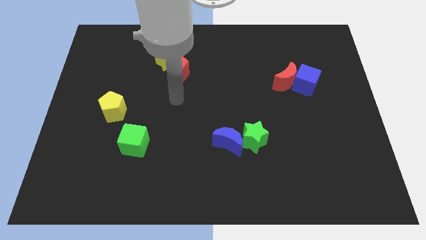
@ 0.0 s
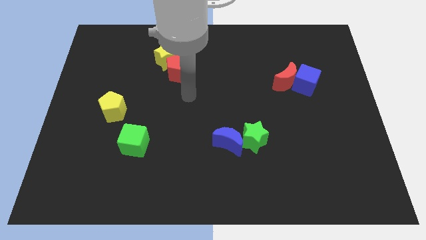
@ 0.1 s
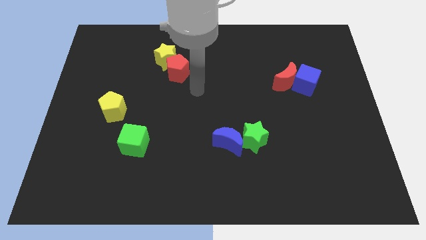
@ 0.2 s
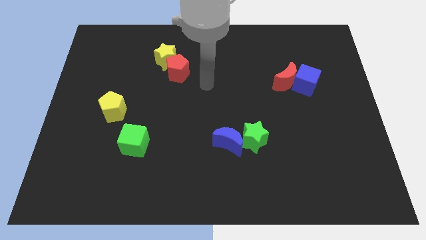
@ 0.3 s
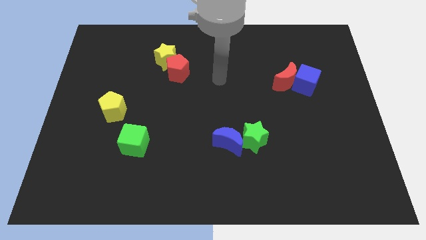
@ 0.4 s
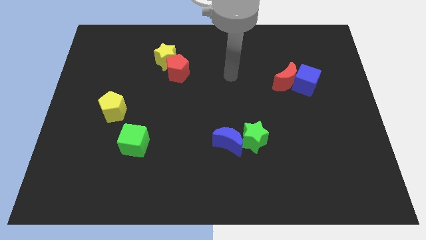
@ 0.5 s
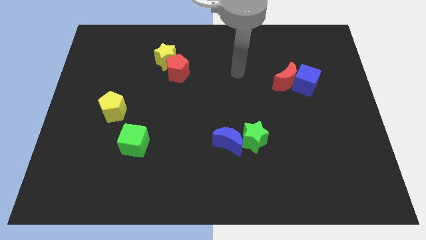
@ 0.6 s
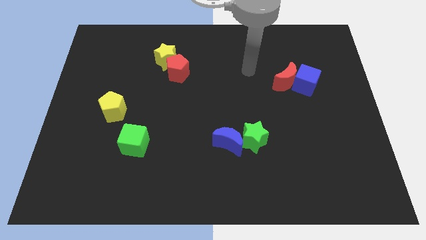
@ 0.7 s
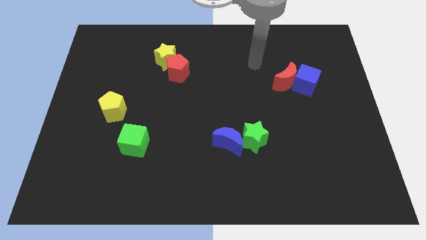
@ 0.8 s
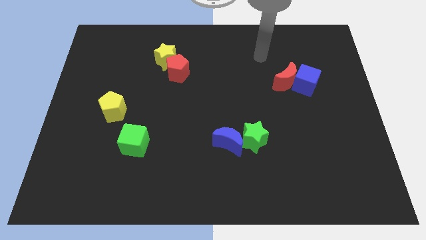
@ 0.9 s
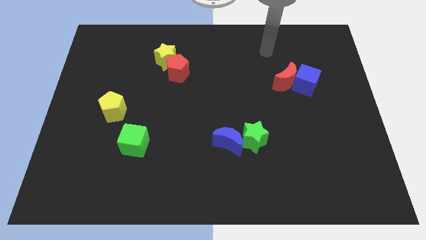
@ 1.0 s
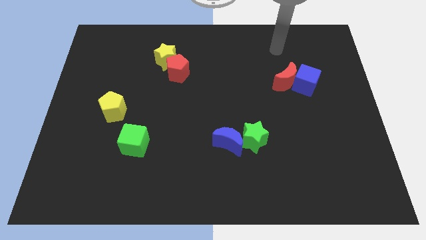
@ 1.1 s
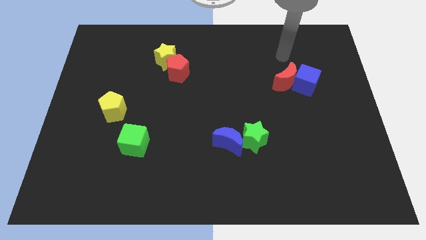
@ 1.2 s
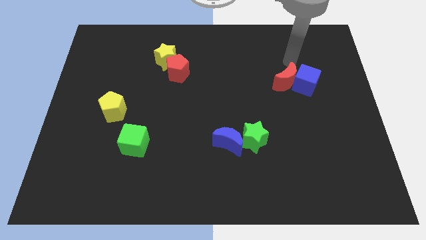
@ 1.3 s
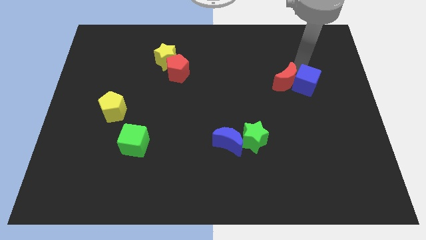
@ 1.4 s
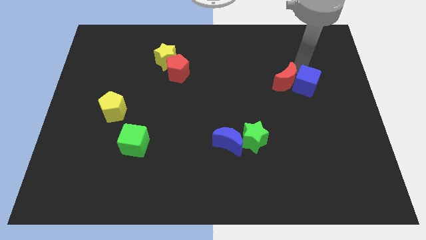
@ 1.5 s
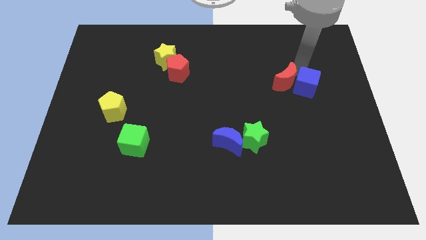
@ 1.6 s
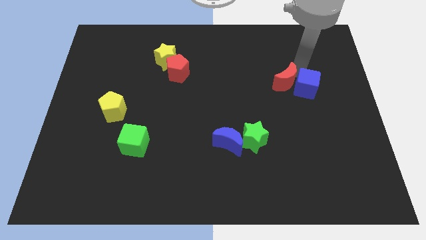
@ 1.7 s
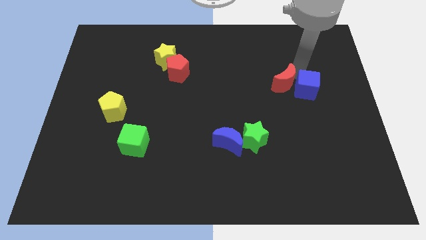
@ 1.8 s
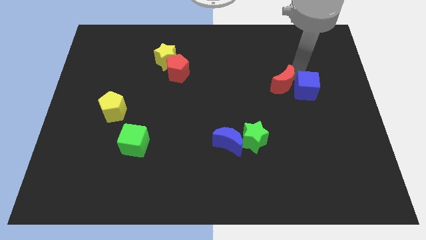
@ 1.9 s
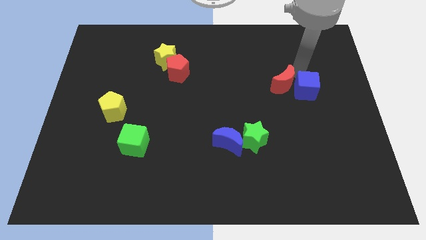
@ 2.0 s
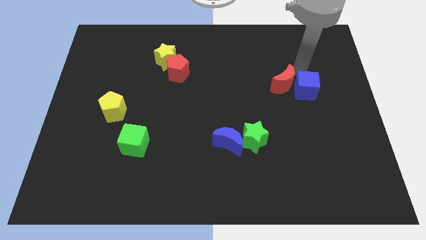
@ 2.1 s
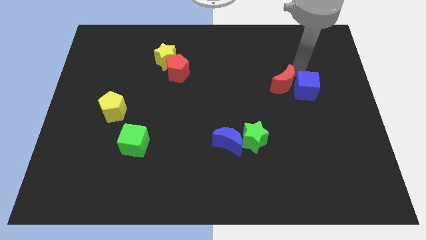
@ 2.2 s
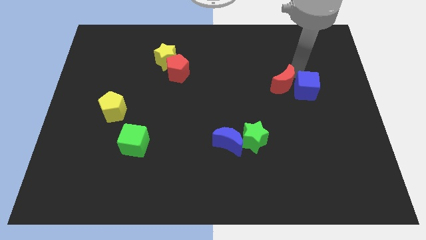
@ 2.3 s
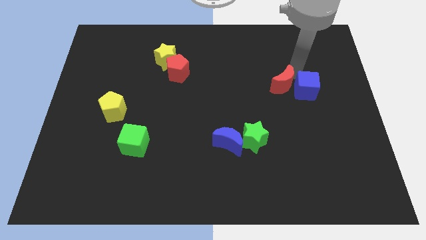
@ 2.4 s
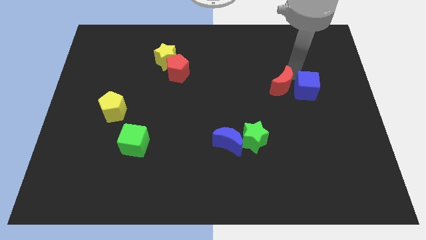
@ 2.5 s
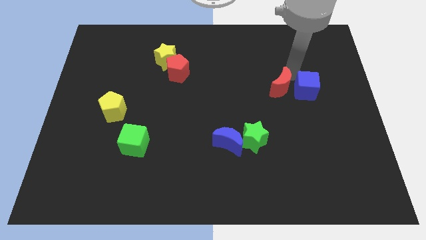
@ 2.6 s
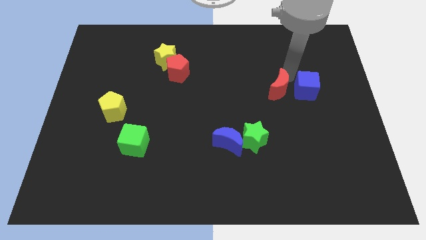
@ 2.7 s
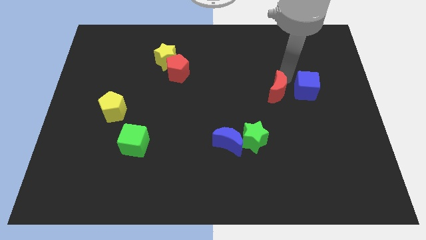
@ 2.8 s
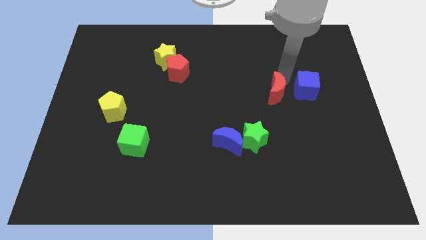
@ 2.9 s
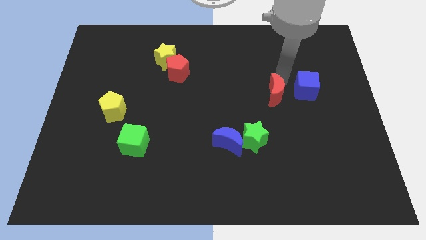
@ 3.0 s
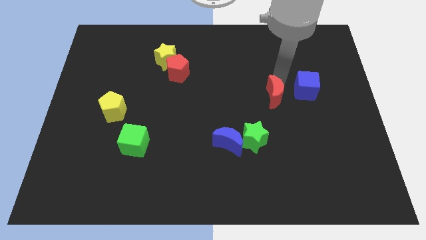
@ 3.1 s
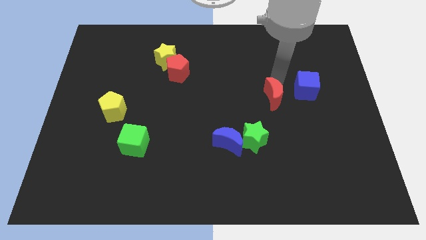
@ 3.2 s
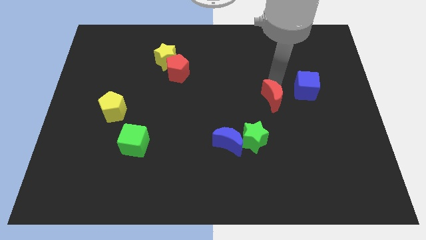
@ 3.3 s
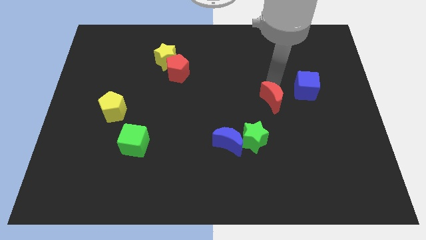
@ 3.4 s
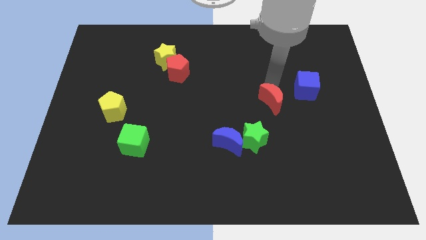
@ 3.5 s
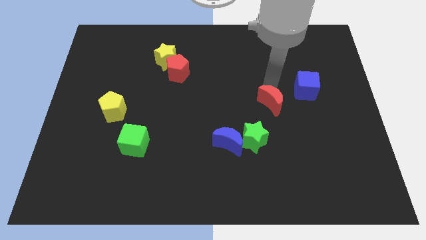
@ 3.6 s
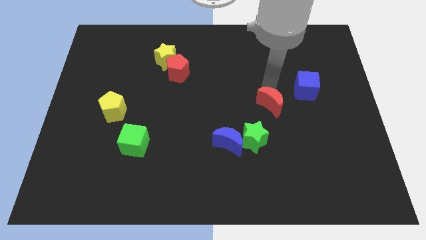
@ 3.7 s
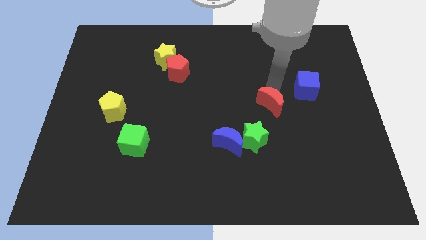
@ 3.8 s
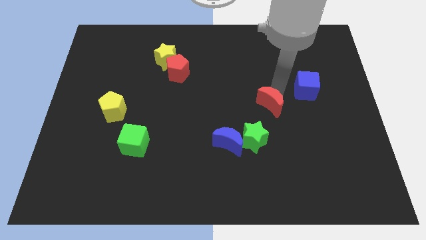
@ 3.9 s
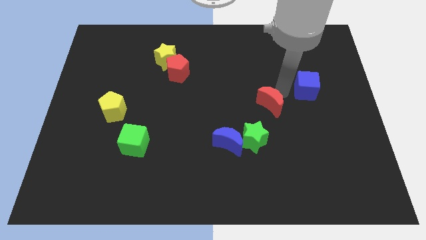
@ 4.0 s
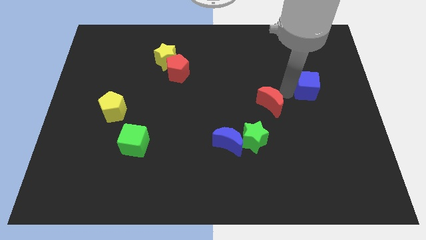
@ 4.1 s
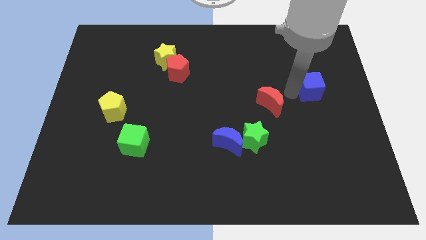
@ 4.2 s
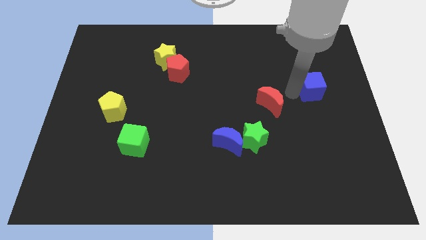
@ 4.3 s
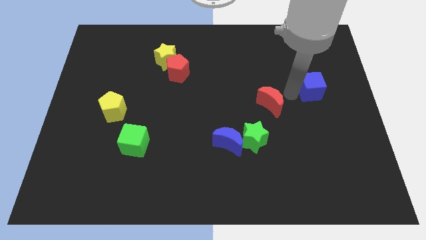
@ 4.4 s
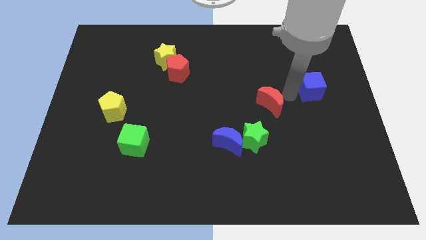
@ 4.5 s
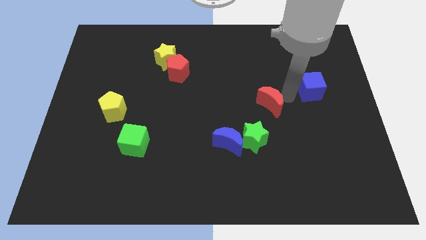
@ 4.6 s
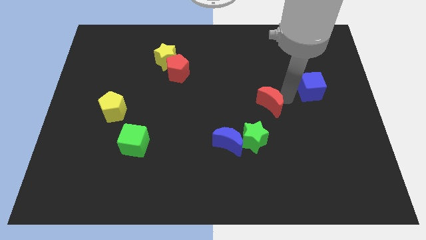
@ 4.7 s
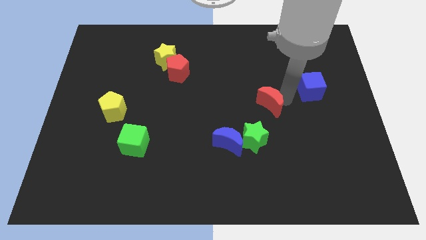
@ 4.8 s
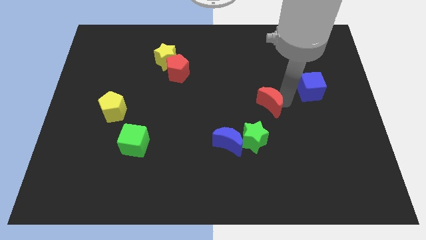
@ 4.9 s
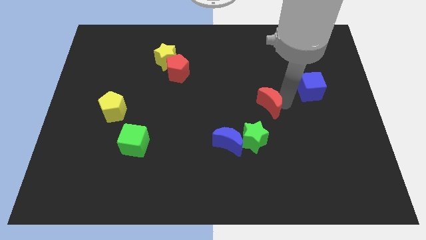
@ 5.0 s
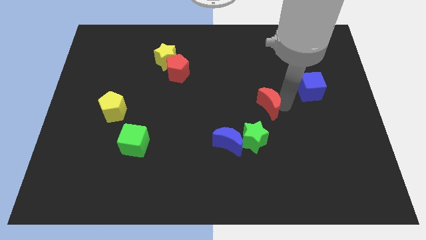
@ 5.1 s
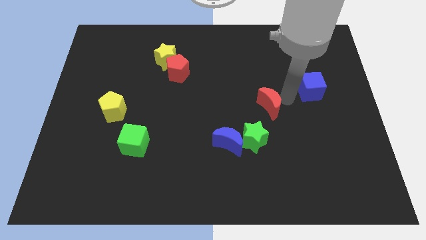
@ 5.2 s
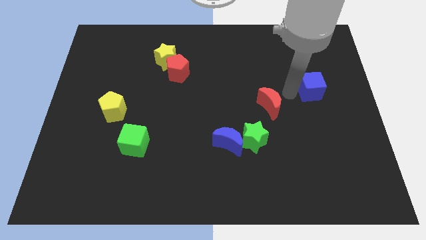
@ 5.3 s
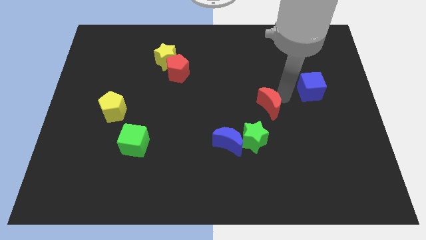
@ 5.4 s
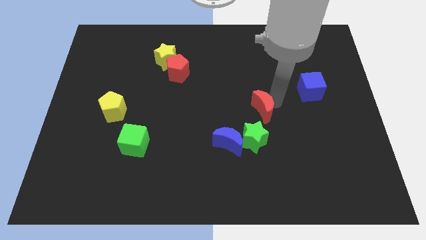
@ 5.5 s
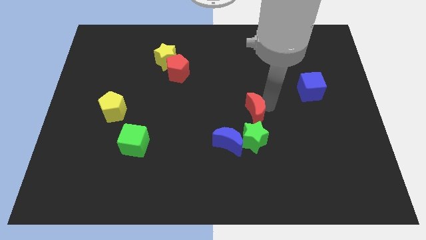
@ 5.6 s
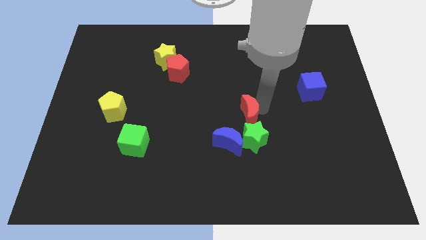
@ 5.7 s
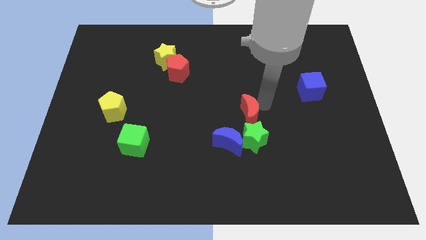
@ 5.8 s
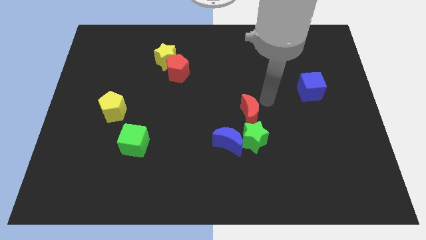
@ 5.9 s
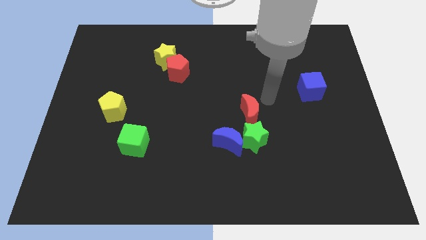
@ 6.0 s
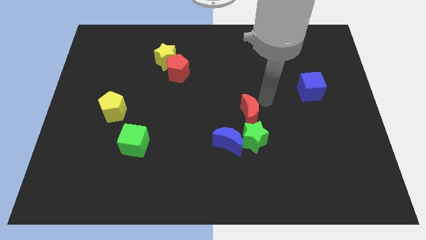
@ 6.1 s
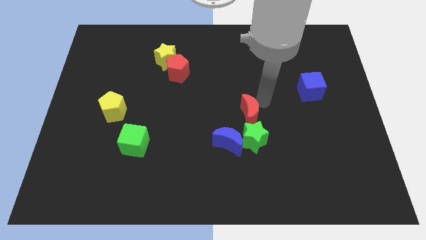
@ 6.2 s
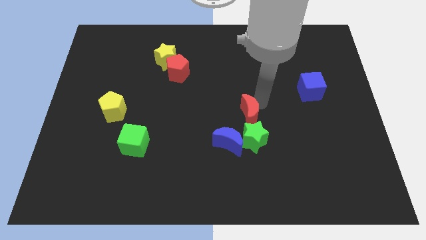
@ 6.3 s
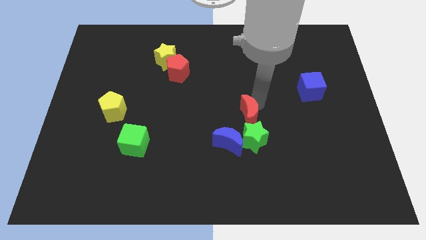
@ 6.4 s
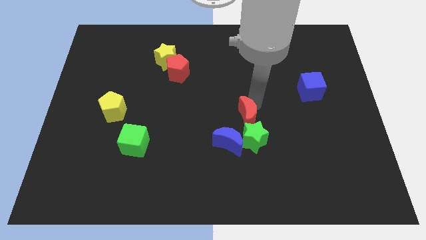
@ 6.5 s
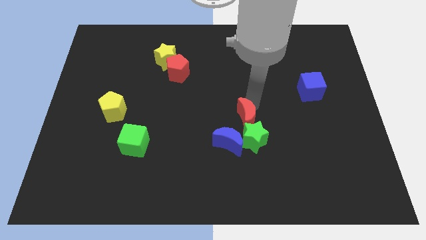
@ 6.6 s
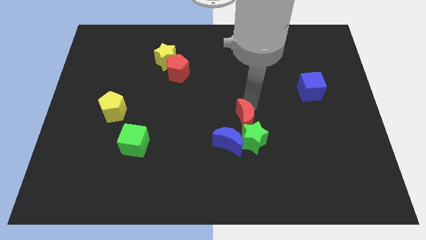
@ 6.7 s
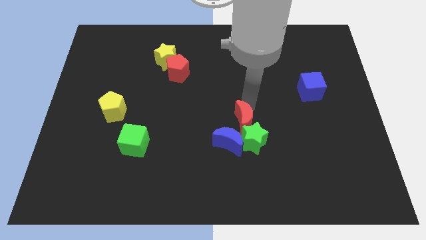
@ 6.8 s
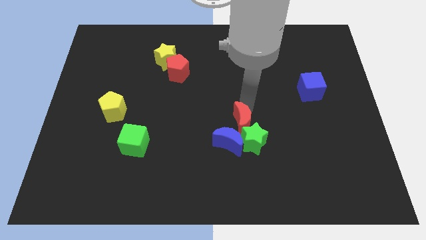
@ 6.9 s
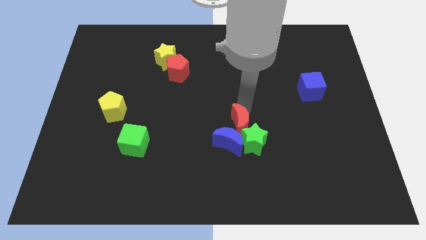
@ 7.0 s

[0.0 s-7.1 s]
move the red moon close to the blue moon

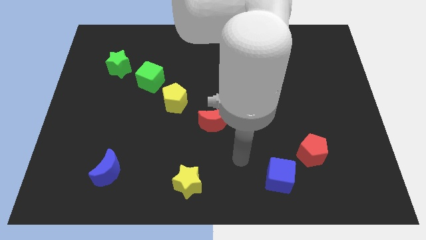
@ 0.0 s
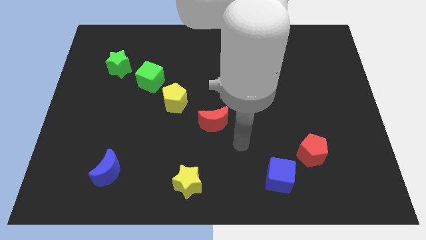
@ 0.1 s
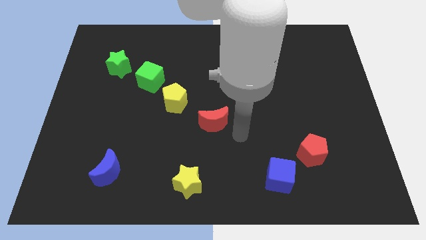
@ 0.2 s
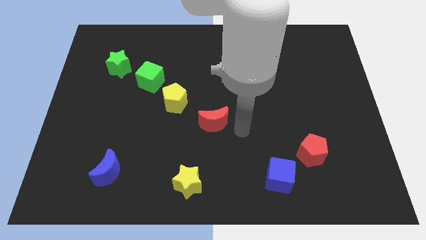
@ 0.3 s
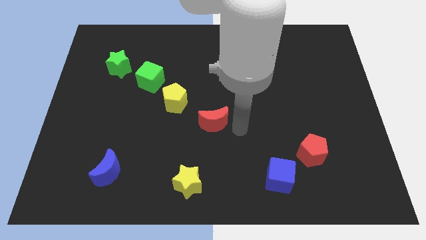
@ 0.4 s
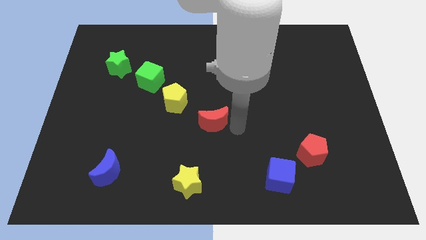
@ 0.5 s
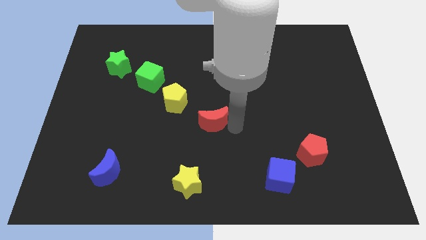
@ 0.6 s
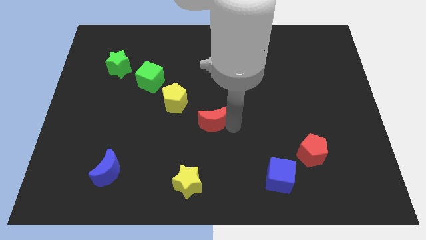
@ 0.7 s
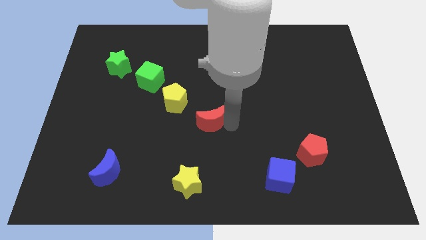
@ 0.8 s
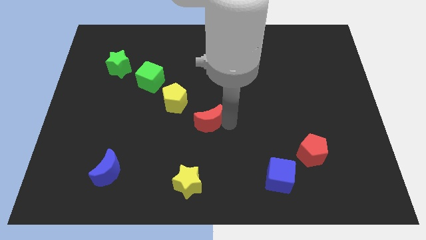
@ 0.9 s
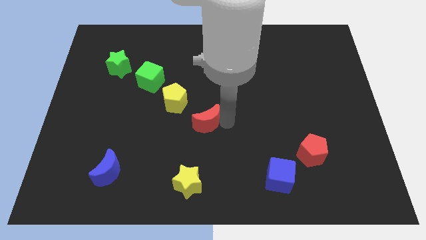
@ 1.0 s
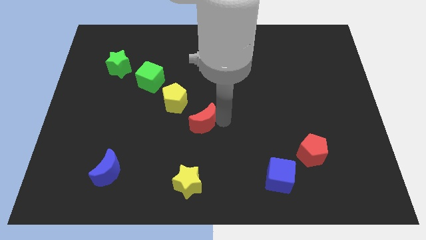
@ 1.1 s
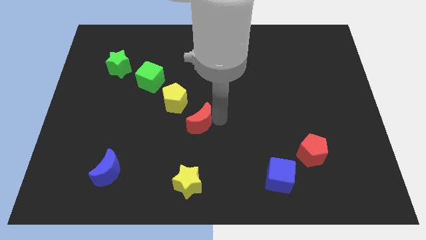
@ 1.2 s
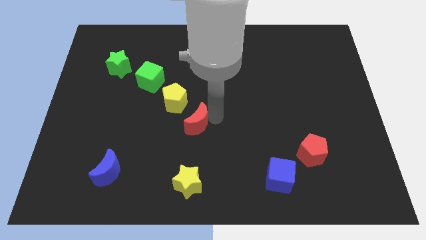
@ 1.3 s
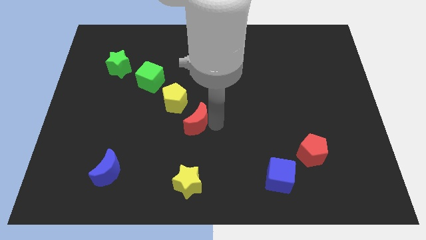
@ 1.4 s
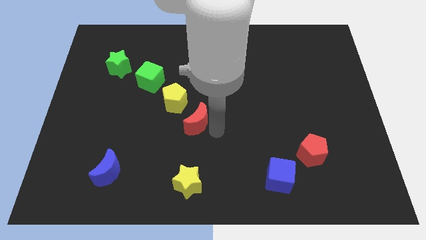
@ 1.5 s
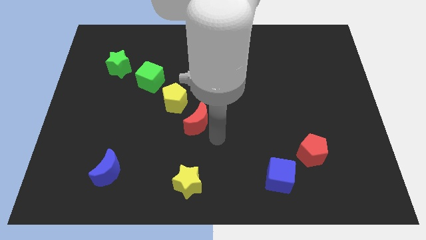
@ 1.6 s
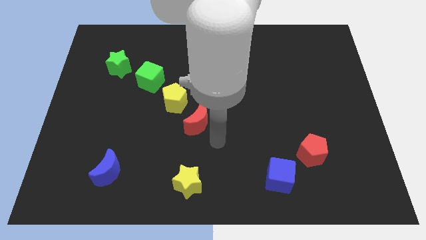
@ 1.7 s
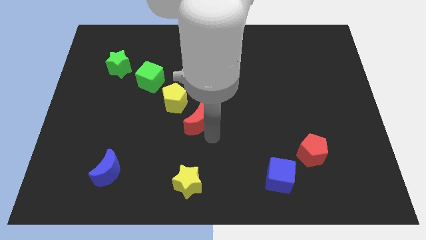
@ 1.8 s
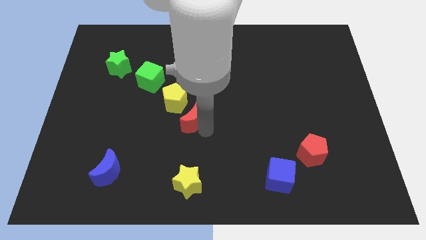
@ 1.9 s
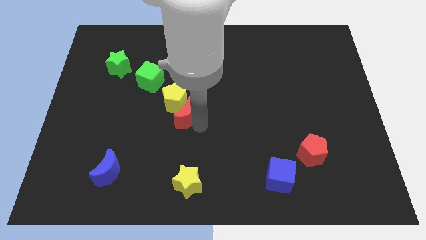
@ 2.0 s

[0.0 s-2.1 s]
move the red moon to the yellow pentagon
